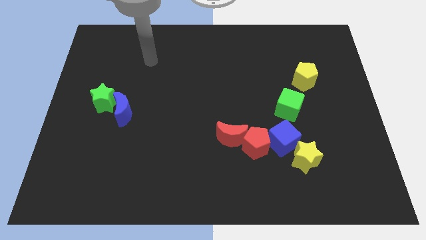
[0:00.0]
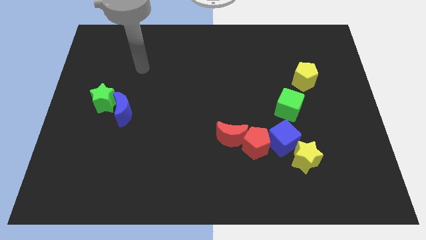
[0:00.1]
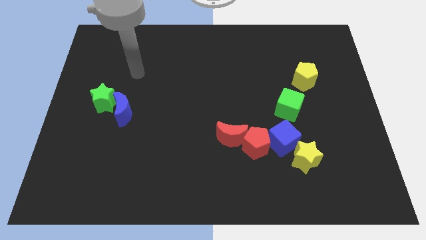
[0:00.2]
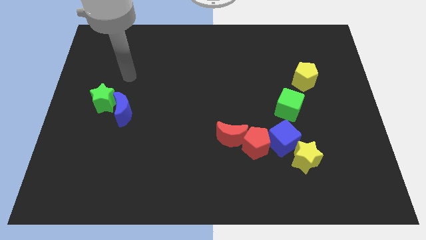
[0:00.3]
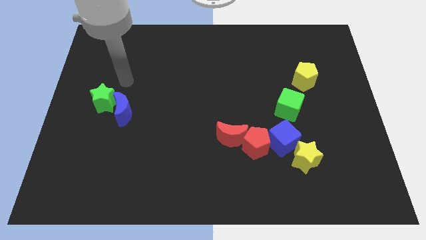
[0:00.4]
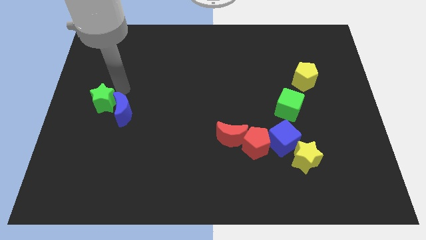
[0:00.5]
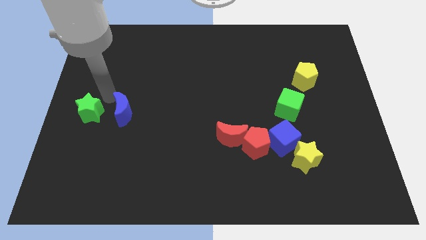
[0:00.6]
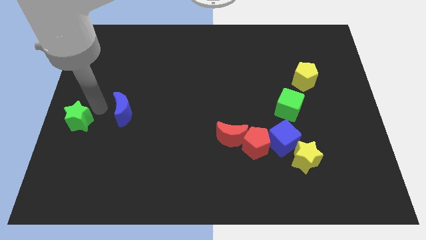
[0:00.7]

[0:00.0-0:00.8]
move the blue moon away from the green star

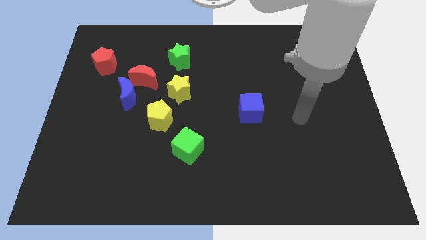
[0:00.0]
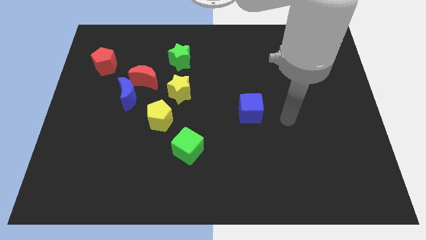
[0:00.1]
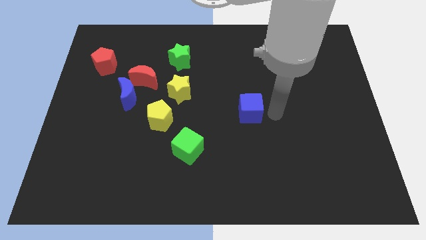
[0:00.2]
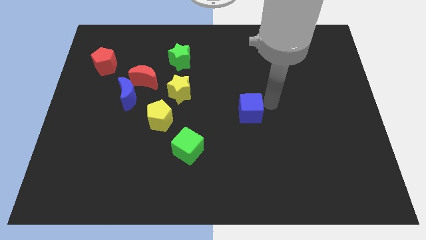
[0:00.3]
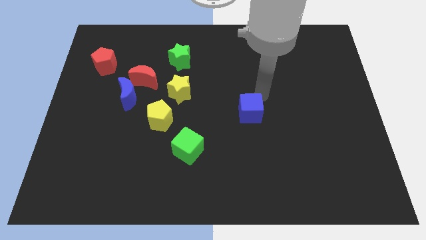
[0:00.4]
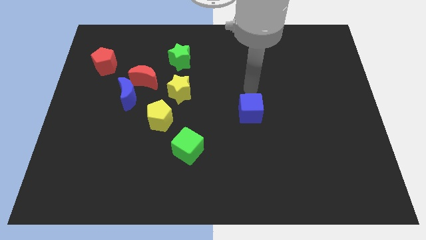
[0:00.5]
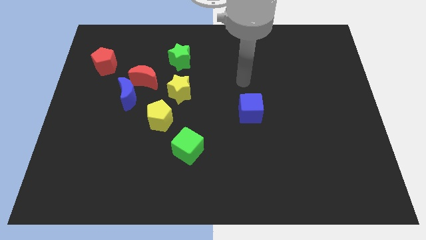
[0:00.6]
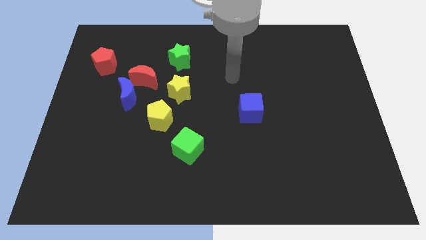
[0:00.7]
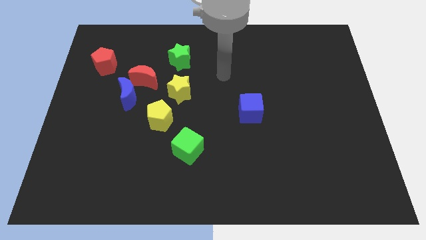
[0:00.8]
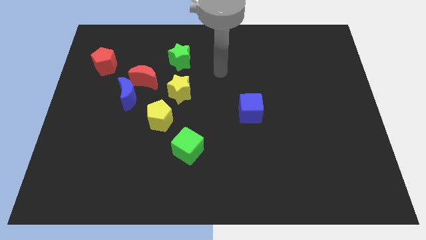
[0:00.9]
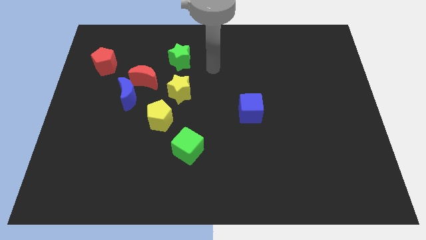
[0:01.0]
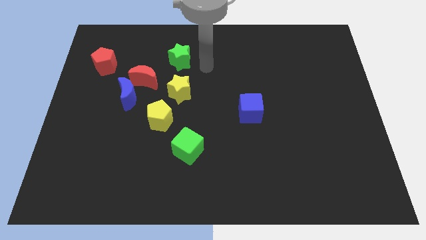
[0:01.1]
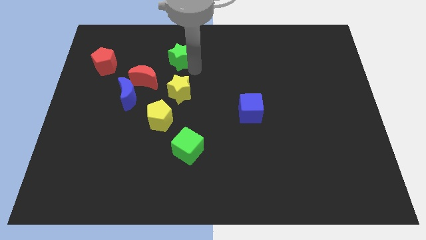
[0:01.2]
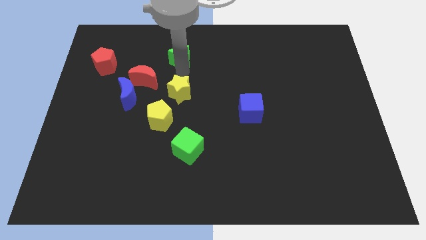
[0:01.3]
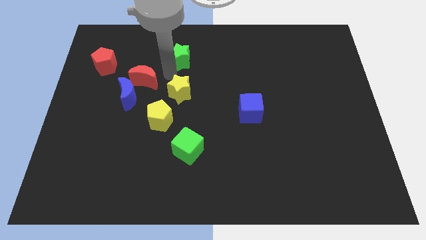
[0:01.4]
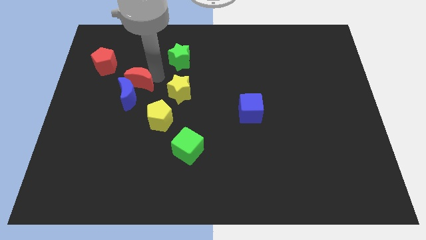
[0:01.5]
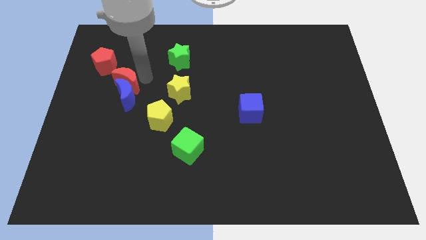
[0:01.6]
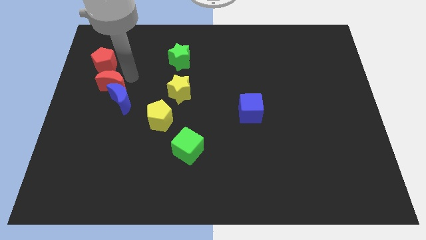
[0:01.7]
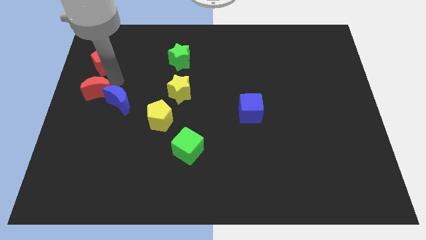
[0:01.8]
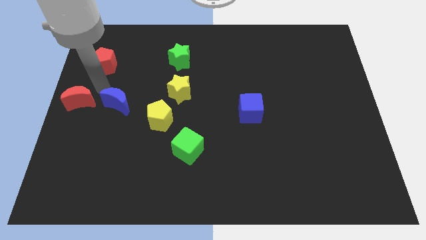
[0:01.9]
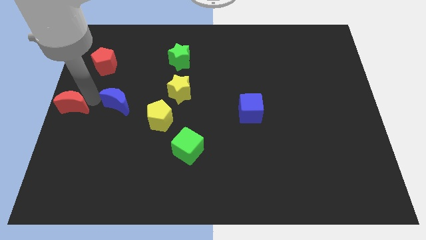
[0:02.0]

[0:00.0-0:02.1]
separate the blue moon from the red moon

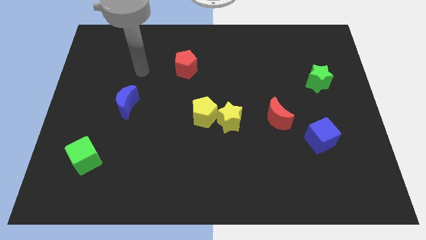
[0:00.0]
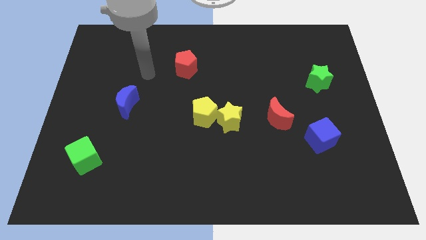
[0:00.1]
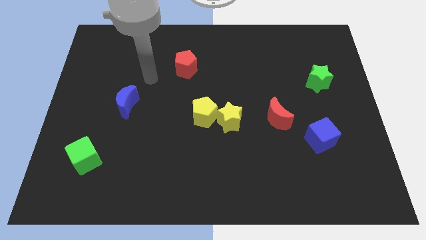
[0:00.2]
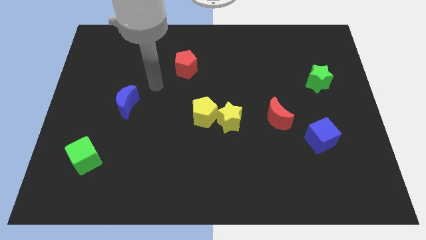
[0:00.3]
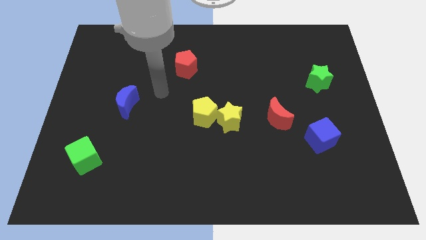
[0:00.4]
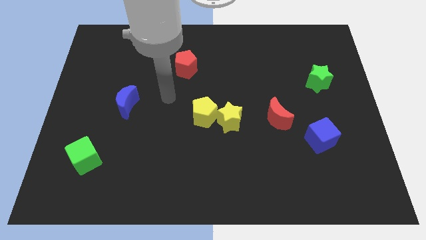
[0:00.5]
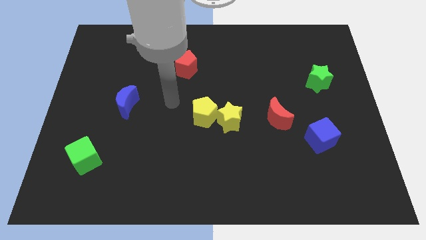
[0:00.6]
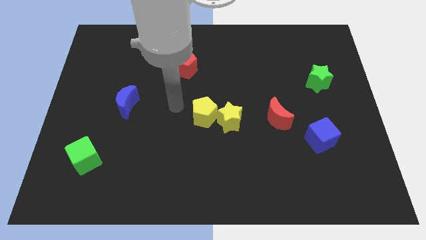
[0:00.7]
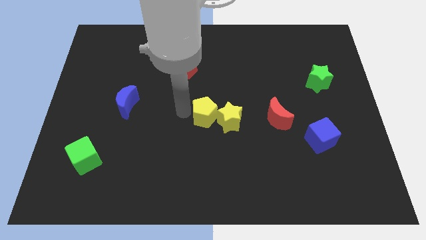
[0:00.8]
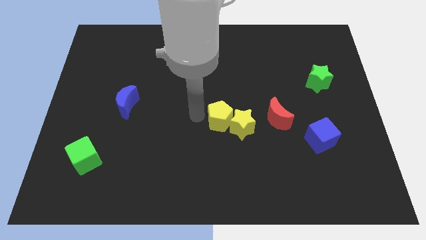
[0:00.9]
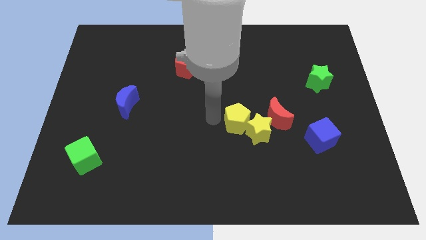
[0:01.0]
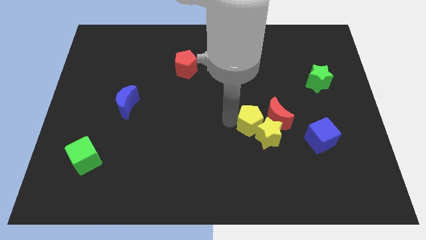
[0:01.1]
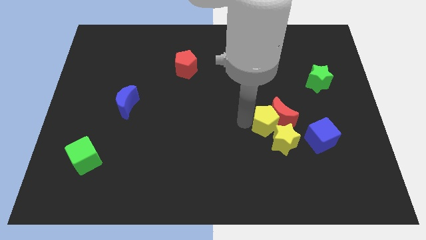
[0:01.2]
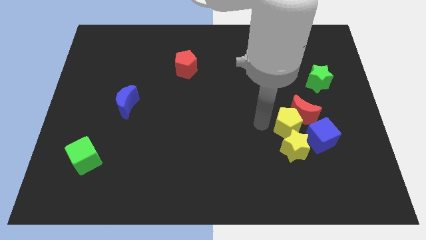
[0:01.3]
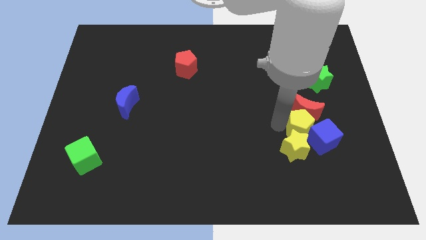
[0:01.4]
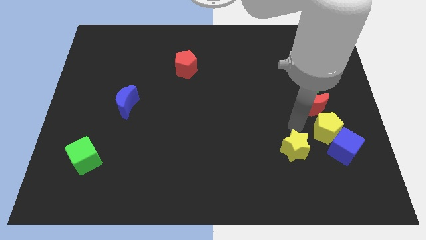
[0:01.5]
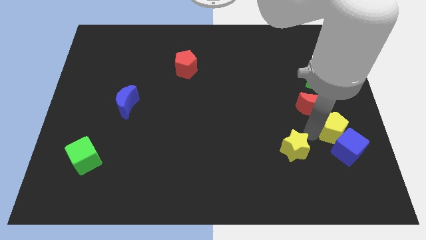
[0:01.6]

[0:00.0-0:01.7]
move the yellow star away from the yellow pentagon

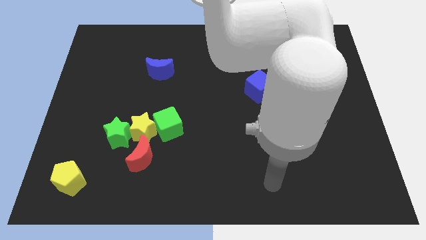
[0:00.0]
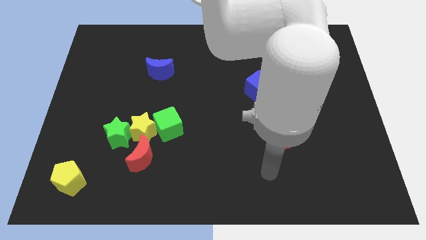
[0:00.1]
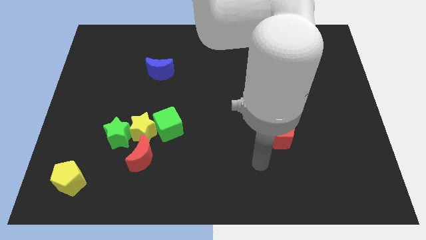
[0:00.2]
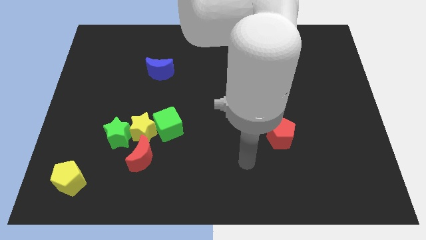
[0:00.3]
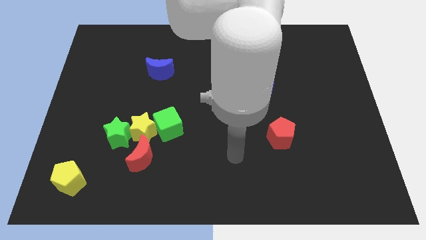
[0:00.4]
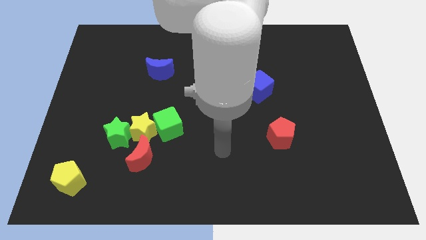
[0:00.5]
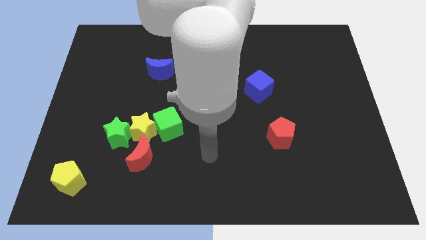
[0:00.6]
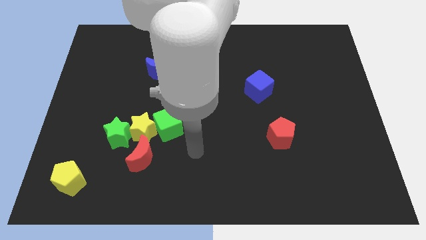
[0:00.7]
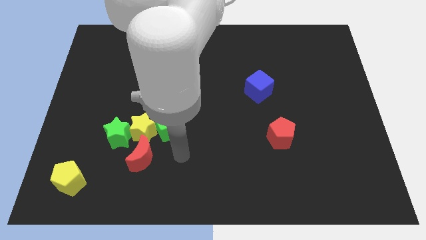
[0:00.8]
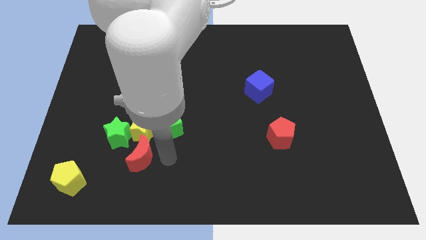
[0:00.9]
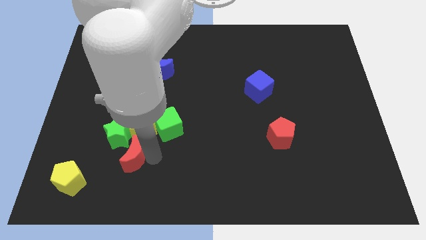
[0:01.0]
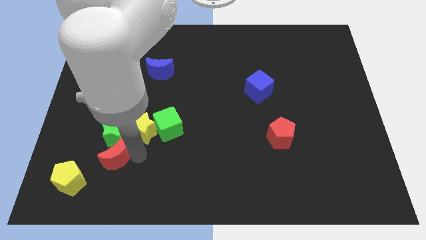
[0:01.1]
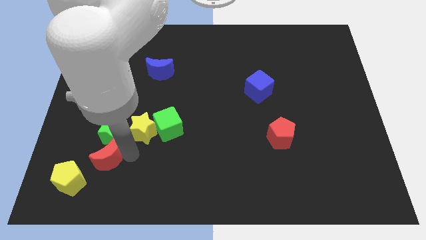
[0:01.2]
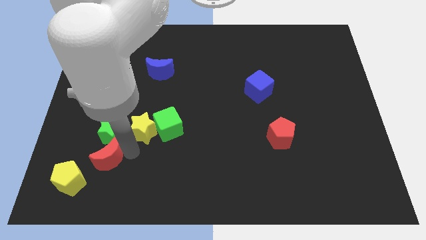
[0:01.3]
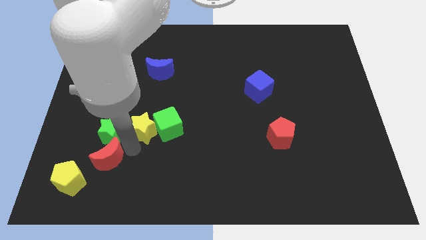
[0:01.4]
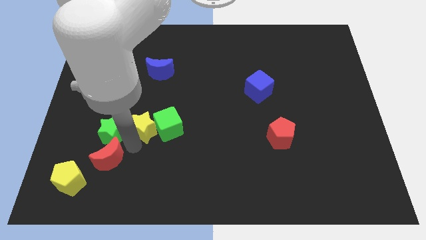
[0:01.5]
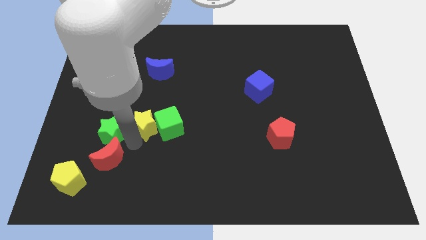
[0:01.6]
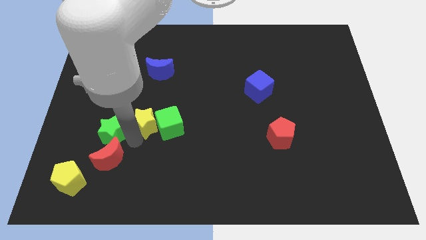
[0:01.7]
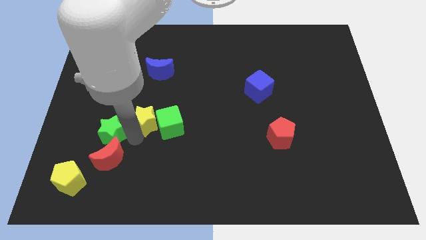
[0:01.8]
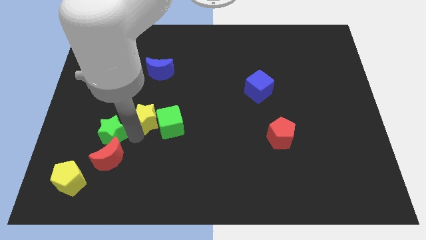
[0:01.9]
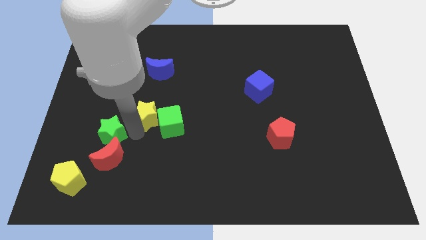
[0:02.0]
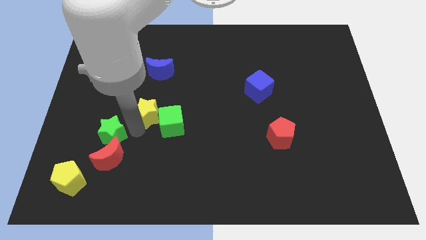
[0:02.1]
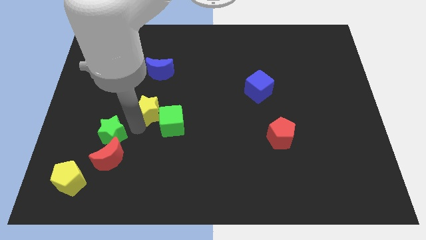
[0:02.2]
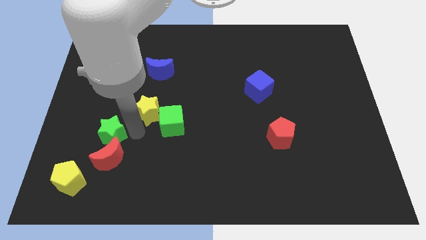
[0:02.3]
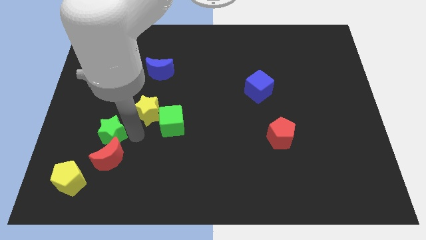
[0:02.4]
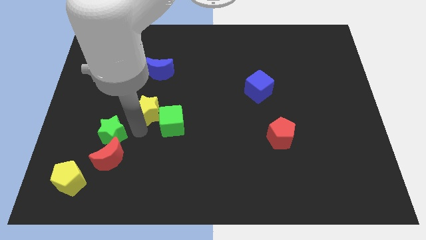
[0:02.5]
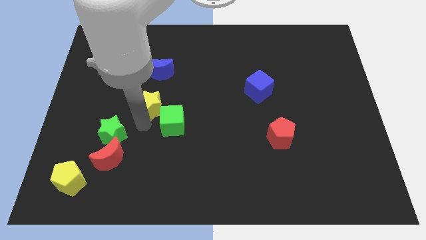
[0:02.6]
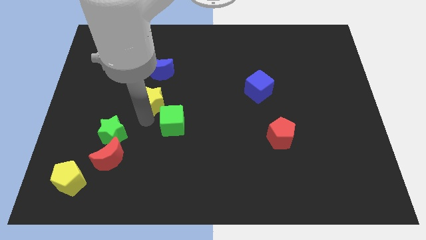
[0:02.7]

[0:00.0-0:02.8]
move the yellow star away from the green cube, green star, and red moon

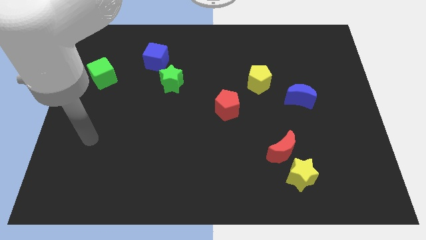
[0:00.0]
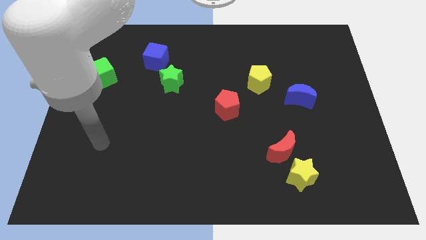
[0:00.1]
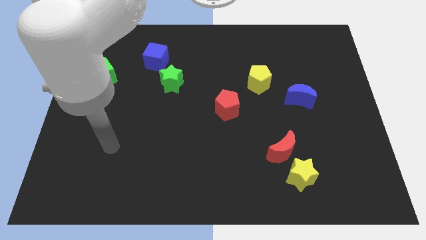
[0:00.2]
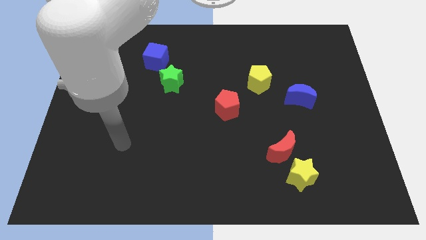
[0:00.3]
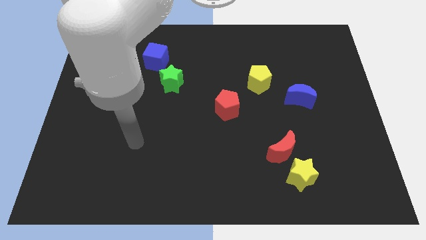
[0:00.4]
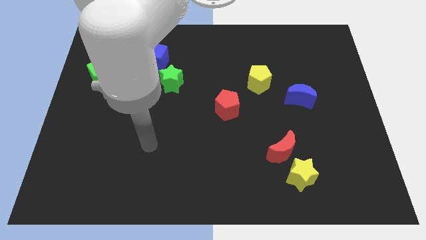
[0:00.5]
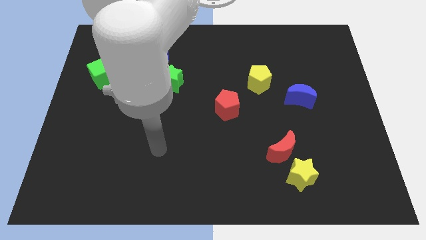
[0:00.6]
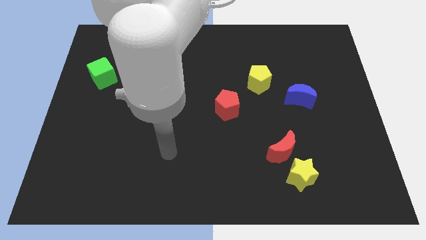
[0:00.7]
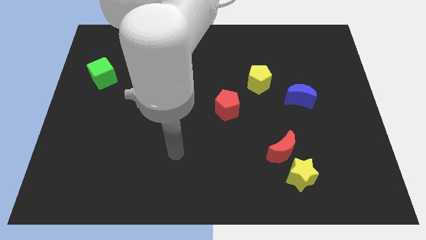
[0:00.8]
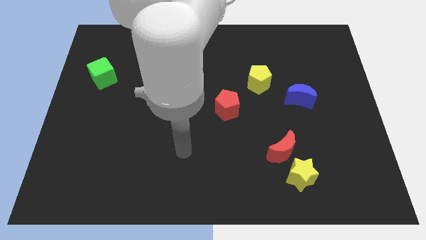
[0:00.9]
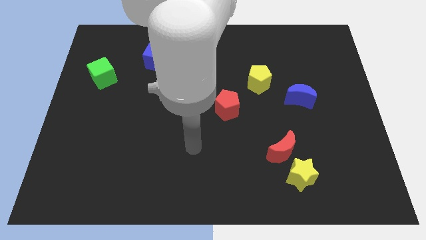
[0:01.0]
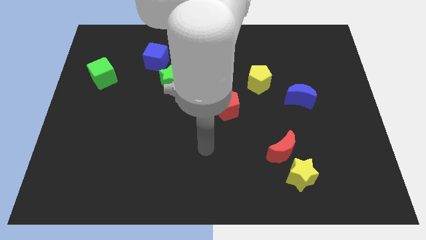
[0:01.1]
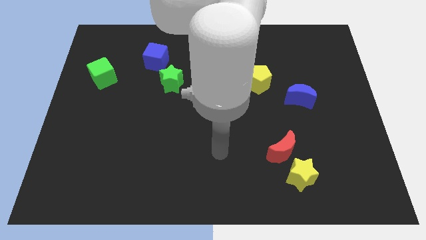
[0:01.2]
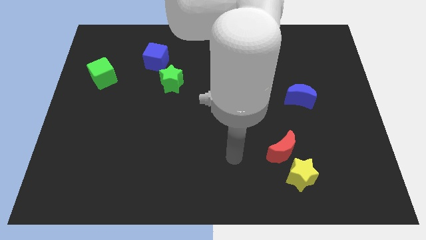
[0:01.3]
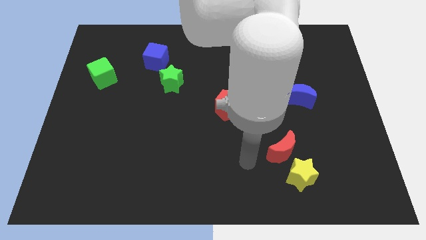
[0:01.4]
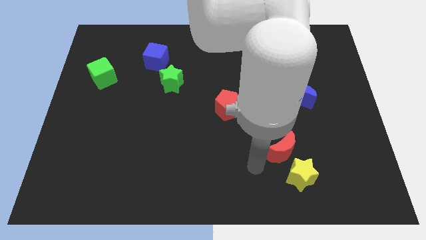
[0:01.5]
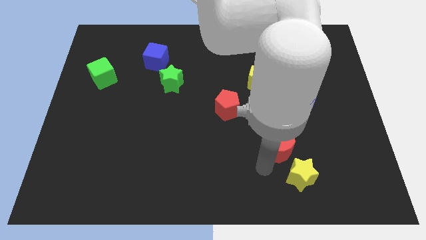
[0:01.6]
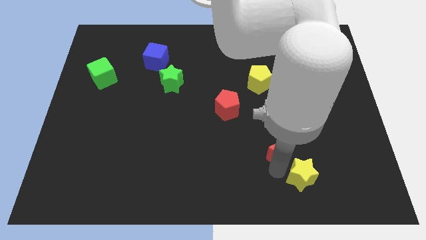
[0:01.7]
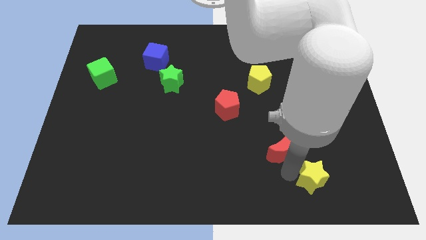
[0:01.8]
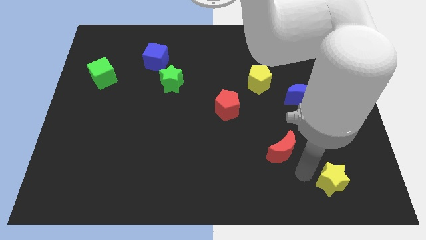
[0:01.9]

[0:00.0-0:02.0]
separate the red moon from the yellow star
